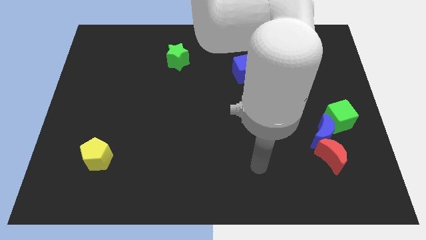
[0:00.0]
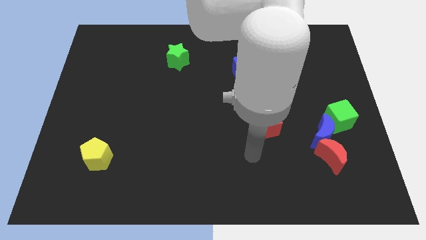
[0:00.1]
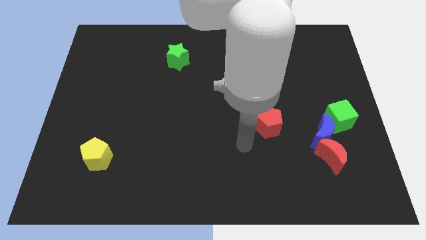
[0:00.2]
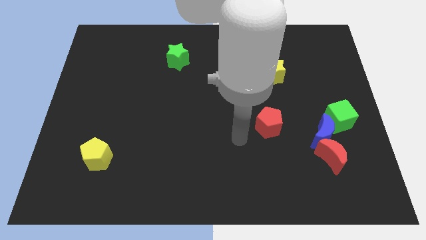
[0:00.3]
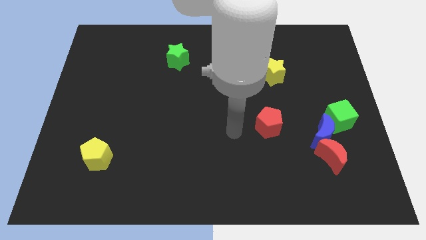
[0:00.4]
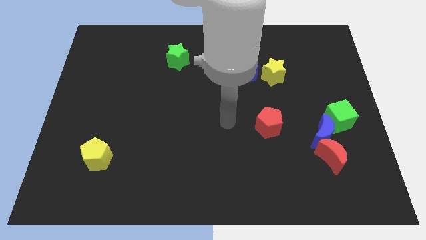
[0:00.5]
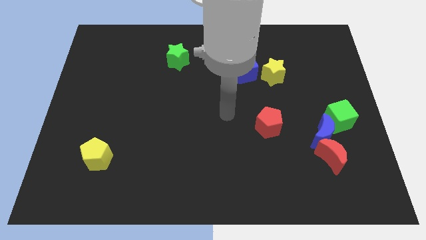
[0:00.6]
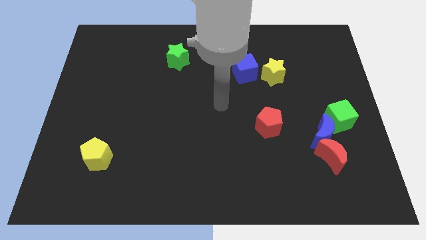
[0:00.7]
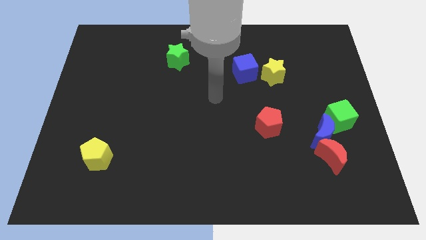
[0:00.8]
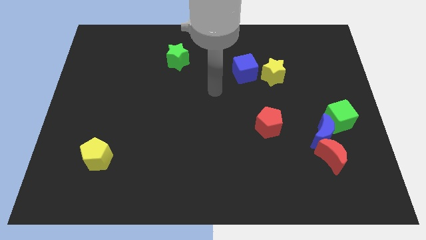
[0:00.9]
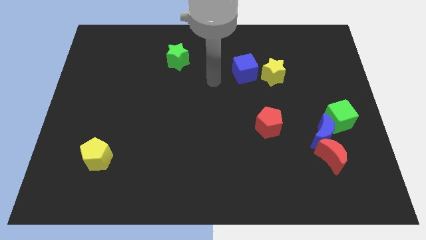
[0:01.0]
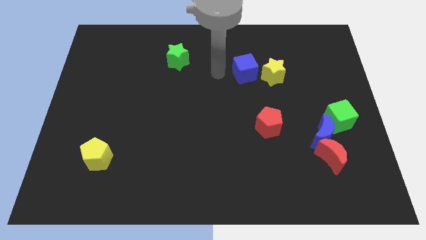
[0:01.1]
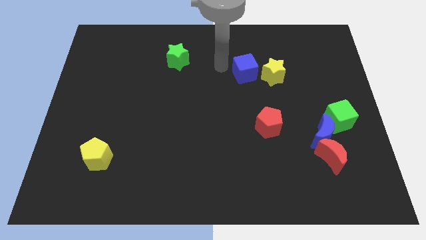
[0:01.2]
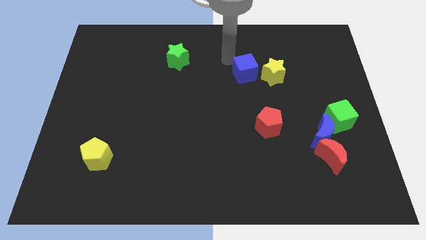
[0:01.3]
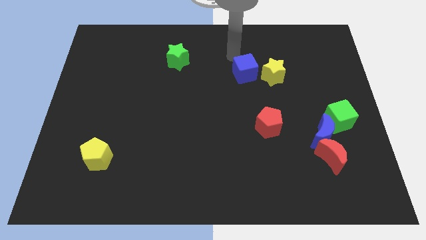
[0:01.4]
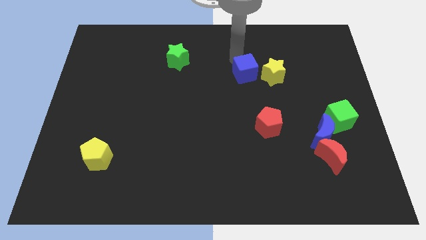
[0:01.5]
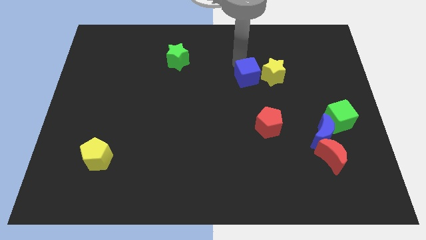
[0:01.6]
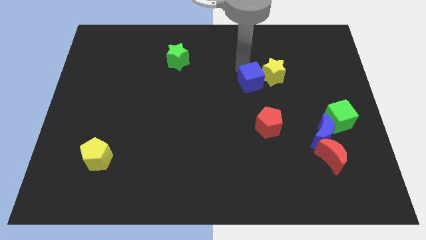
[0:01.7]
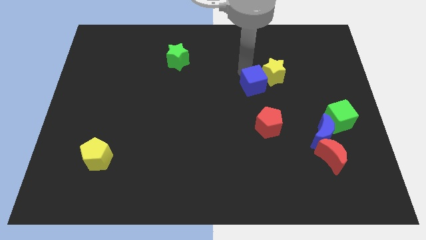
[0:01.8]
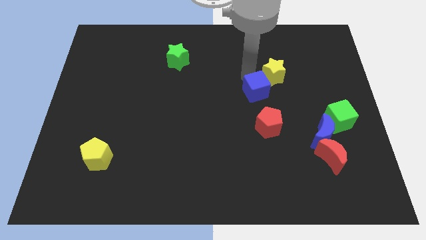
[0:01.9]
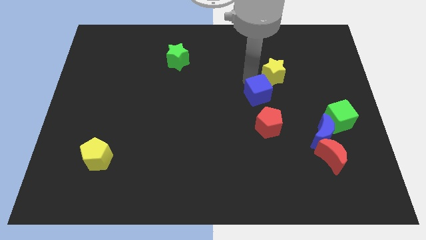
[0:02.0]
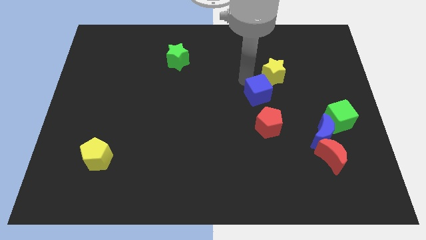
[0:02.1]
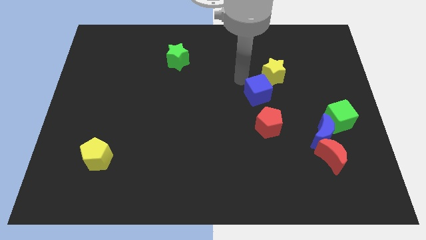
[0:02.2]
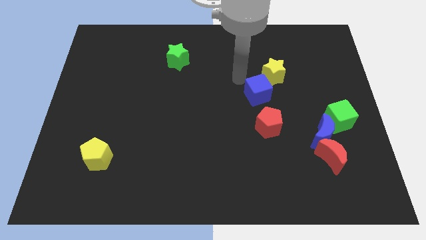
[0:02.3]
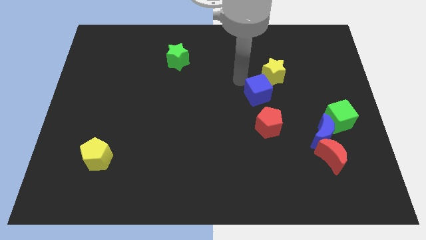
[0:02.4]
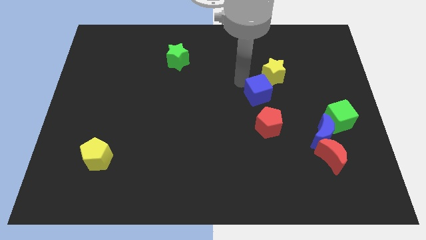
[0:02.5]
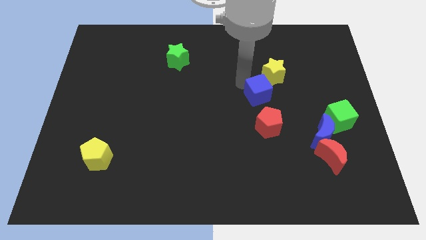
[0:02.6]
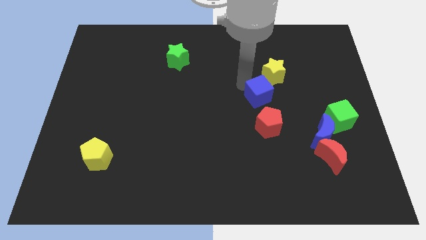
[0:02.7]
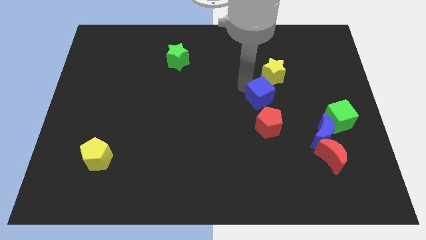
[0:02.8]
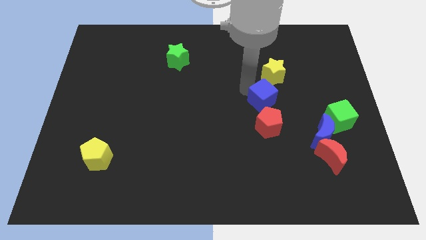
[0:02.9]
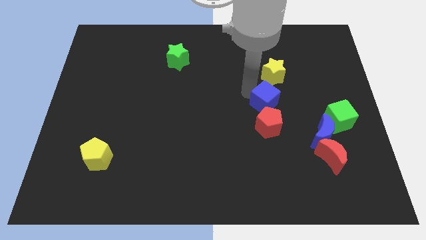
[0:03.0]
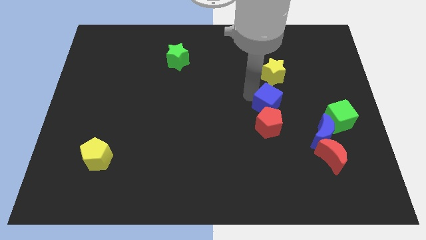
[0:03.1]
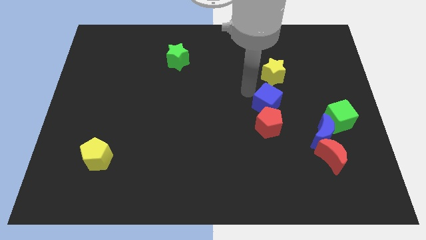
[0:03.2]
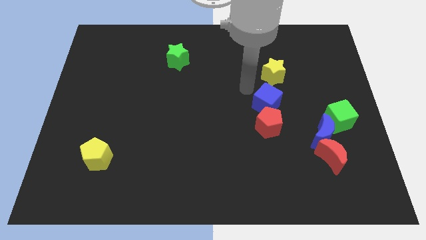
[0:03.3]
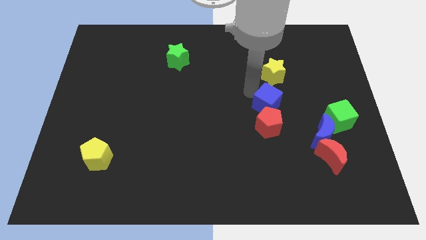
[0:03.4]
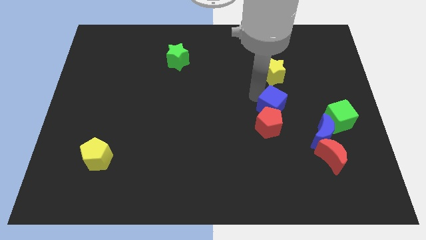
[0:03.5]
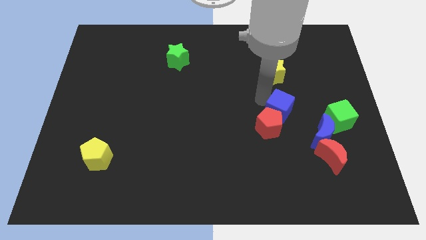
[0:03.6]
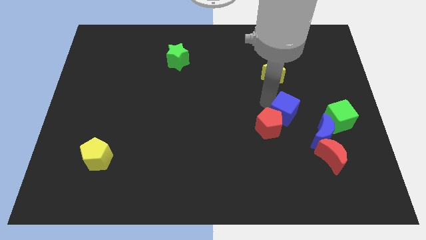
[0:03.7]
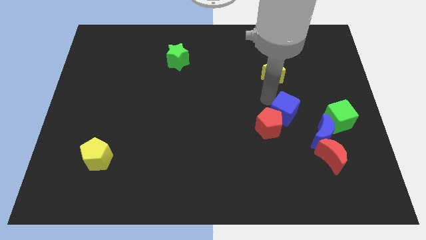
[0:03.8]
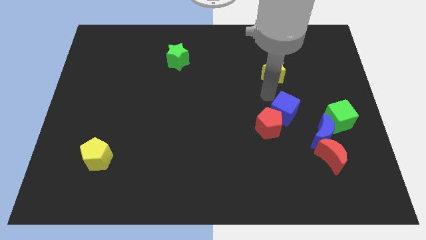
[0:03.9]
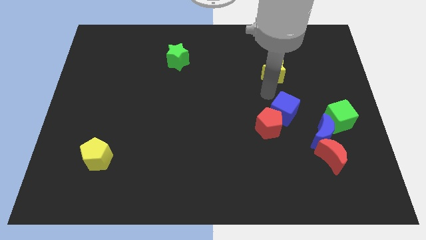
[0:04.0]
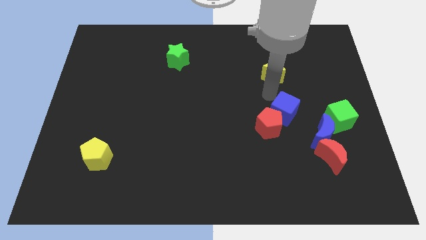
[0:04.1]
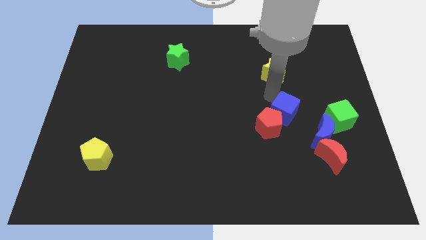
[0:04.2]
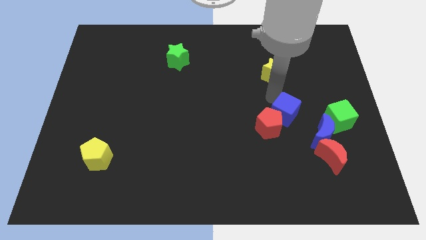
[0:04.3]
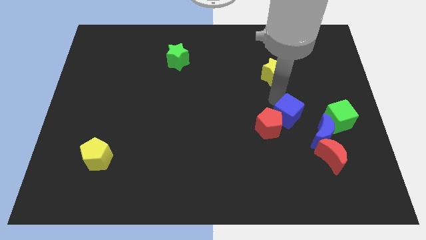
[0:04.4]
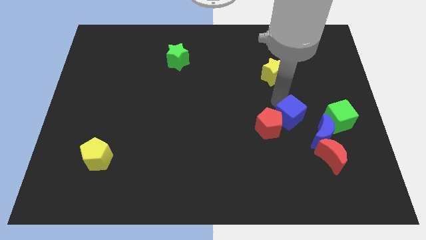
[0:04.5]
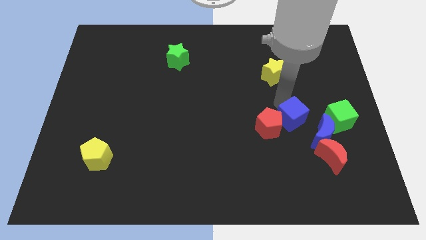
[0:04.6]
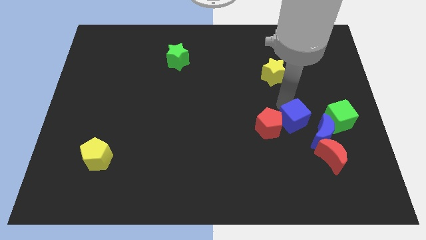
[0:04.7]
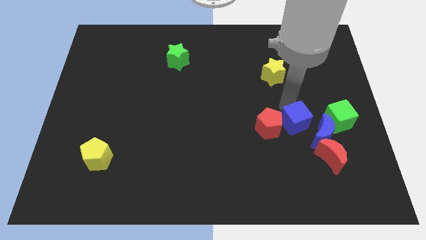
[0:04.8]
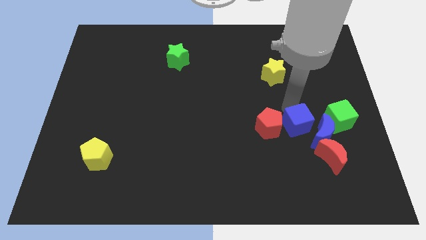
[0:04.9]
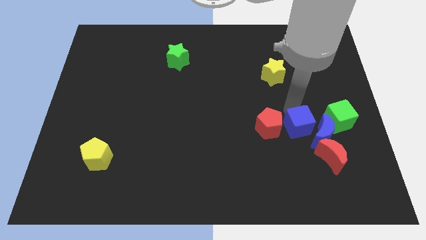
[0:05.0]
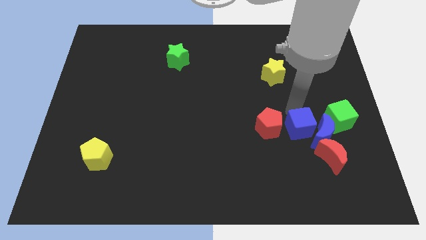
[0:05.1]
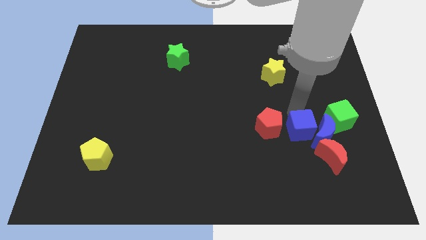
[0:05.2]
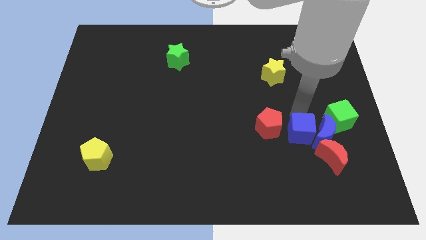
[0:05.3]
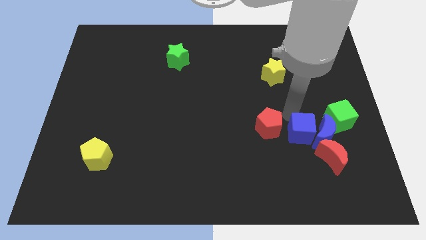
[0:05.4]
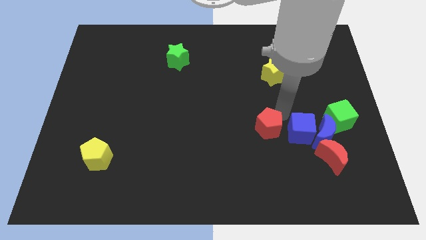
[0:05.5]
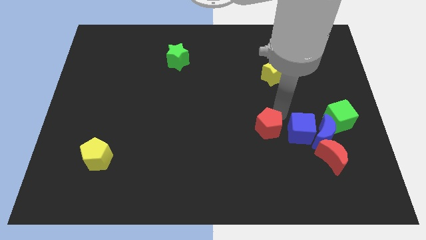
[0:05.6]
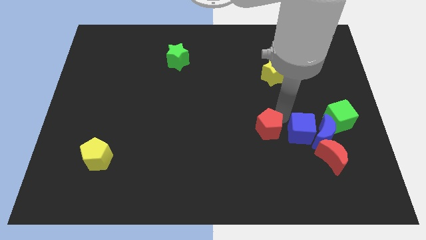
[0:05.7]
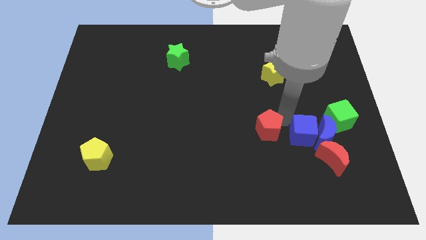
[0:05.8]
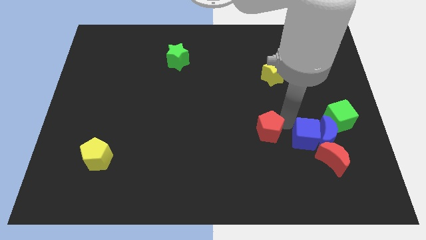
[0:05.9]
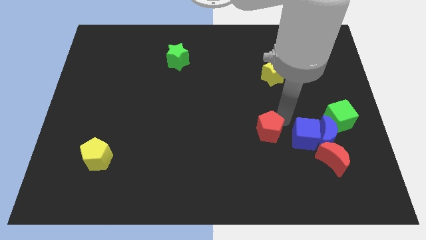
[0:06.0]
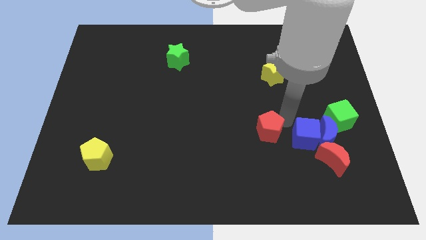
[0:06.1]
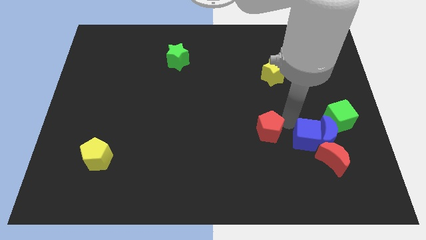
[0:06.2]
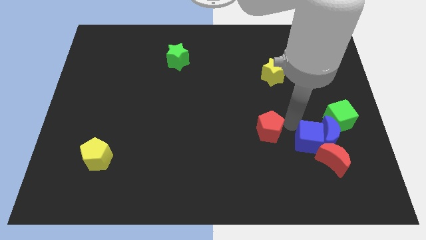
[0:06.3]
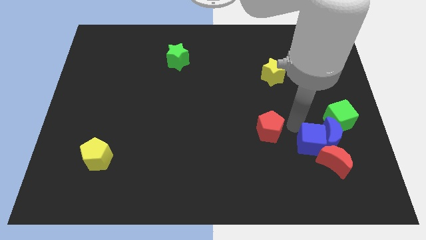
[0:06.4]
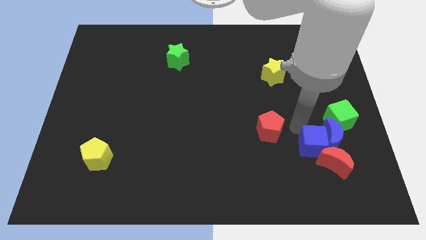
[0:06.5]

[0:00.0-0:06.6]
move the blue cube towards the red moon

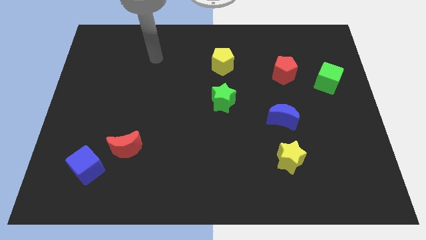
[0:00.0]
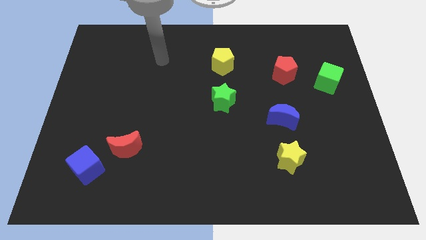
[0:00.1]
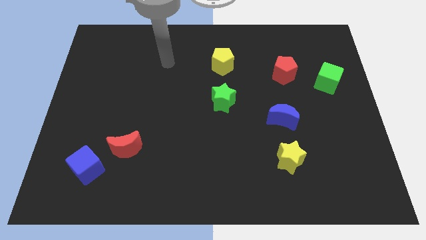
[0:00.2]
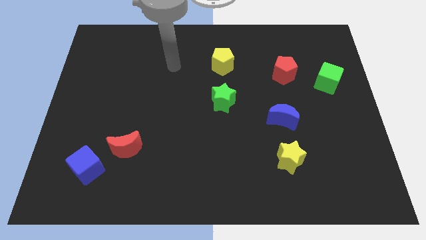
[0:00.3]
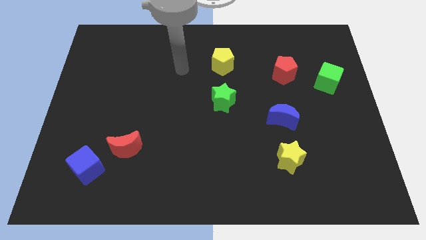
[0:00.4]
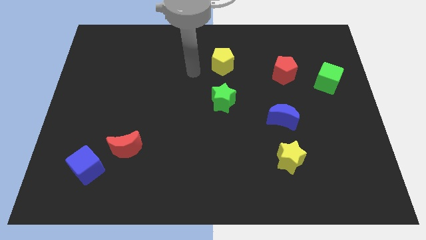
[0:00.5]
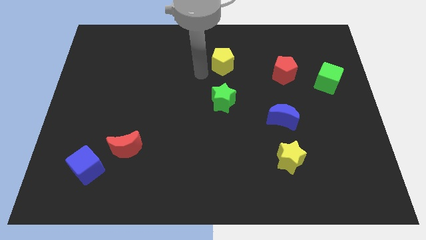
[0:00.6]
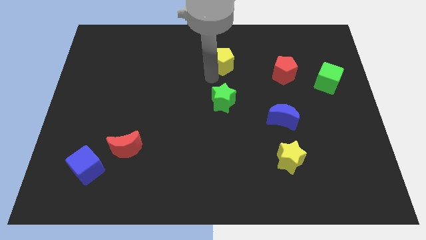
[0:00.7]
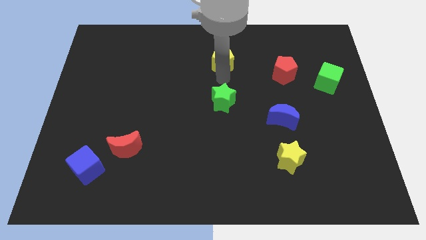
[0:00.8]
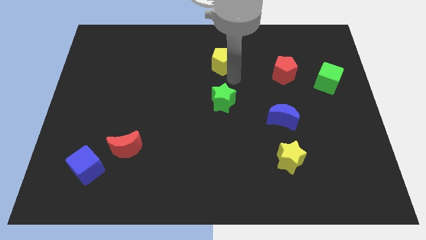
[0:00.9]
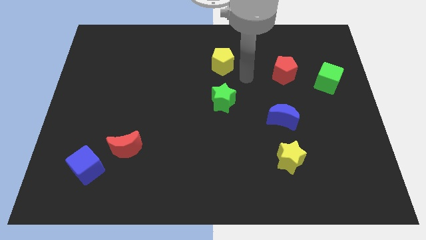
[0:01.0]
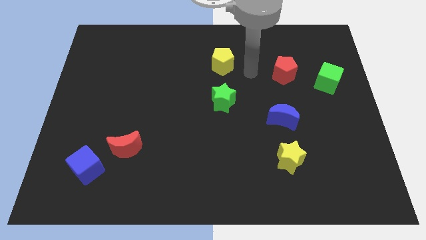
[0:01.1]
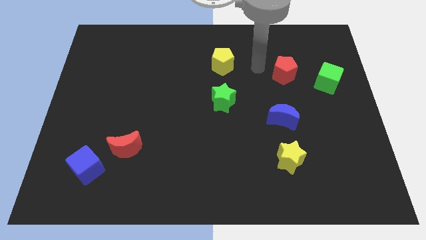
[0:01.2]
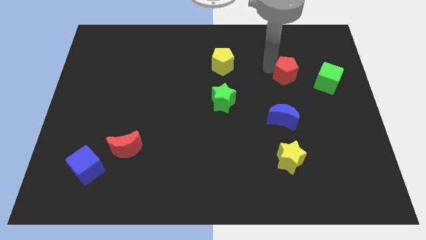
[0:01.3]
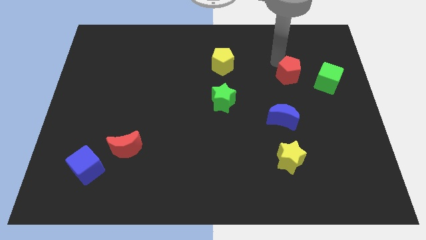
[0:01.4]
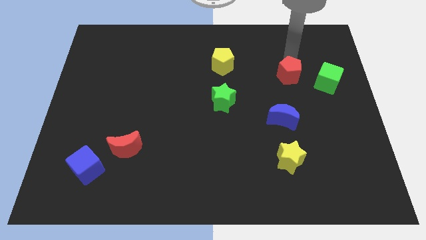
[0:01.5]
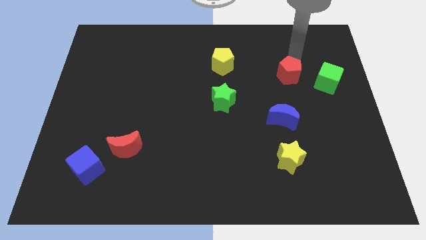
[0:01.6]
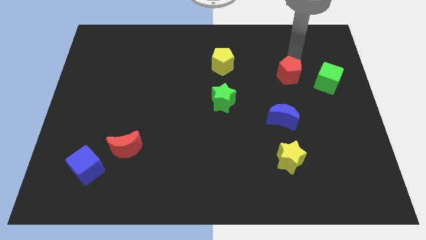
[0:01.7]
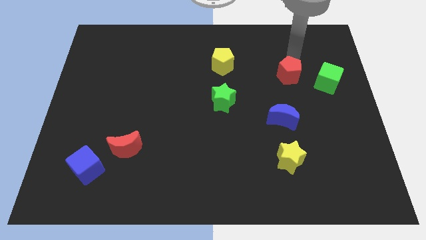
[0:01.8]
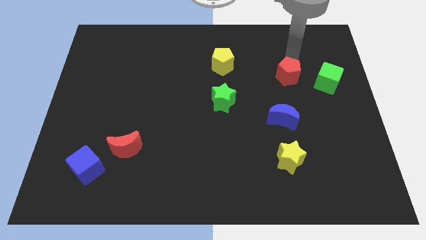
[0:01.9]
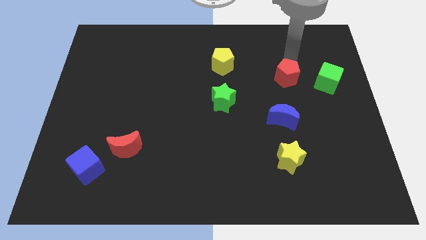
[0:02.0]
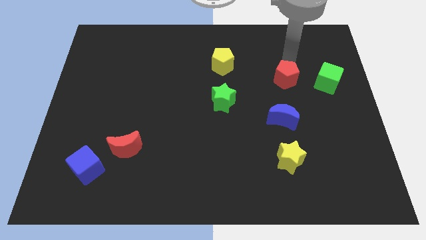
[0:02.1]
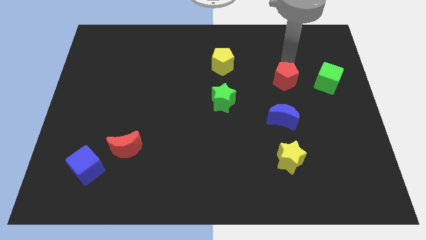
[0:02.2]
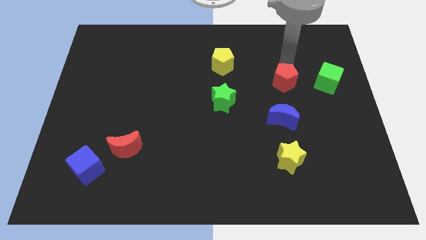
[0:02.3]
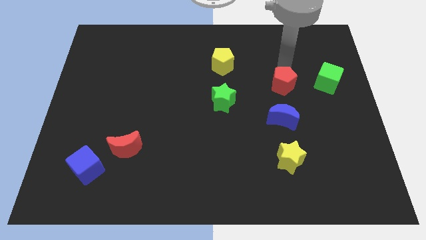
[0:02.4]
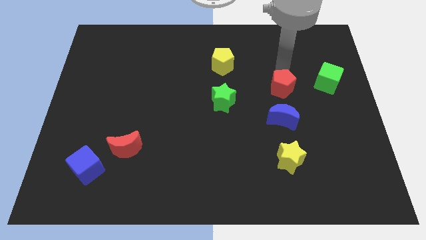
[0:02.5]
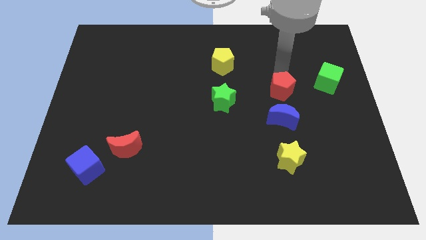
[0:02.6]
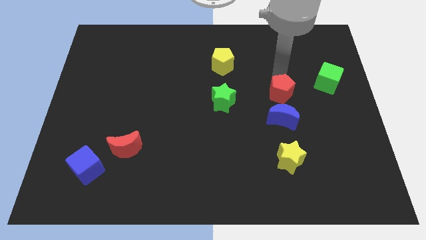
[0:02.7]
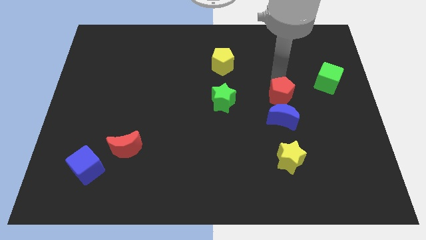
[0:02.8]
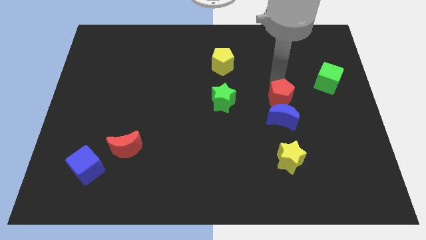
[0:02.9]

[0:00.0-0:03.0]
move the red pentagon to the blue moon
